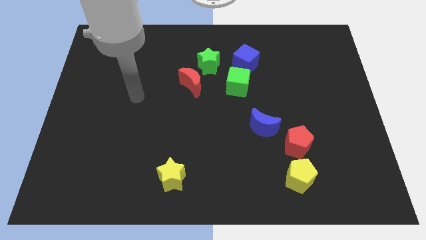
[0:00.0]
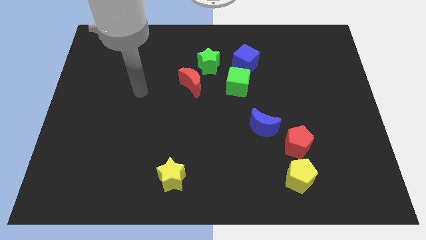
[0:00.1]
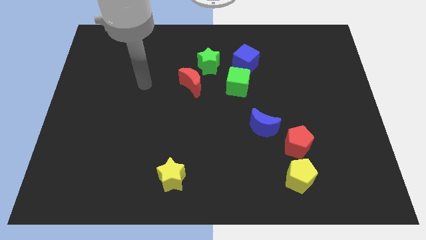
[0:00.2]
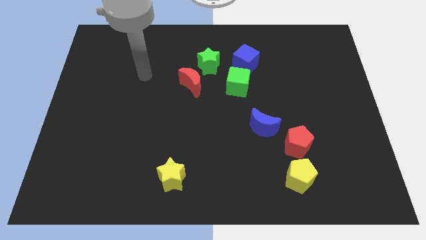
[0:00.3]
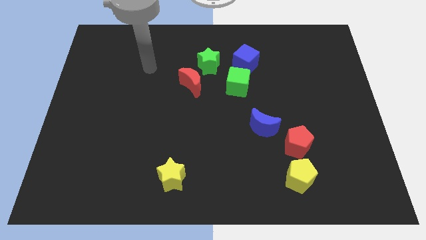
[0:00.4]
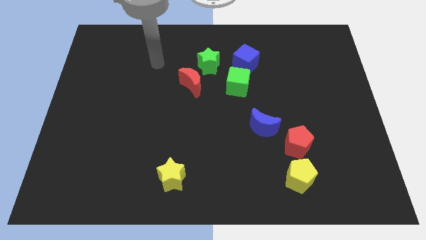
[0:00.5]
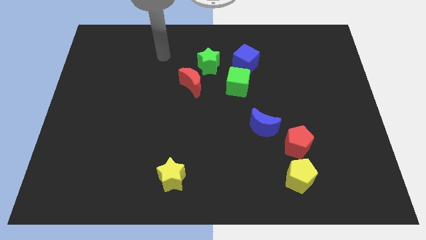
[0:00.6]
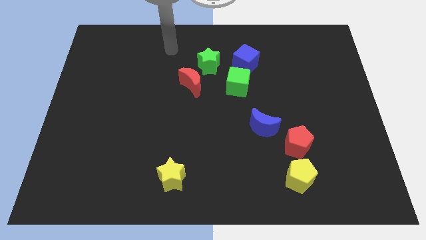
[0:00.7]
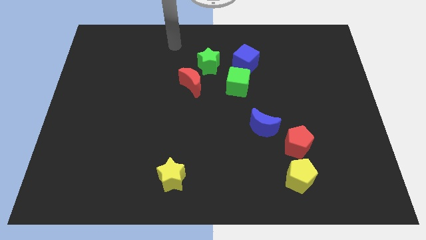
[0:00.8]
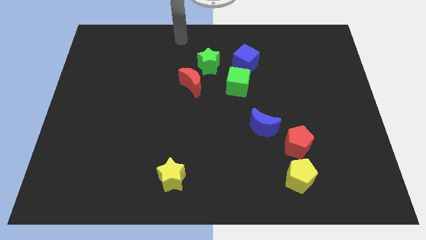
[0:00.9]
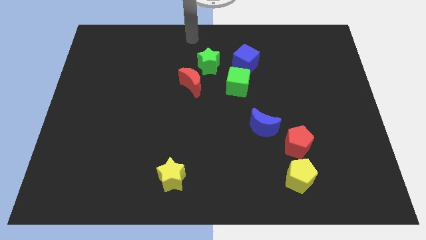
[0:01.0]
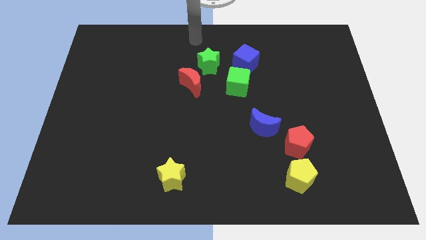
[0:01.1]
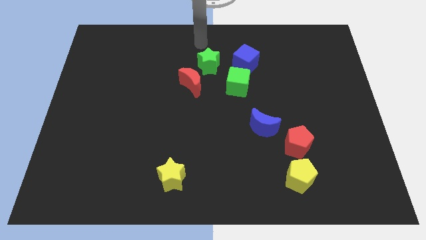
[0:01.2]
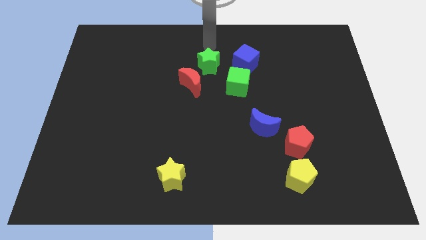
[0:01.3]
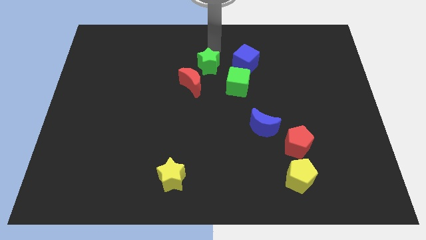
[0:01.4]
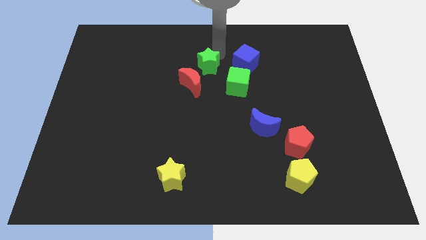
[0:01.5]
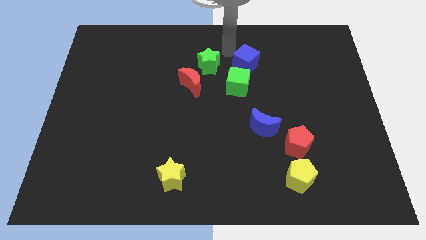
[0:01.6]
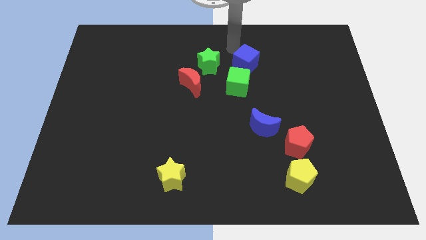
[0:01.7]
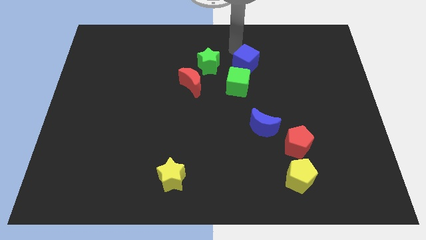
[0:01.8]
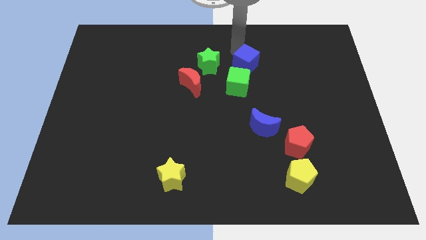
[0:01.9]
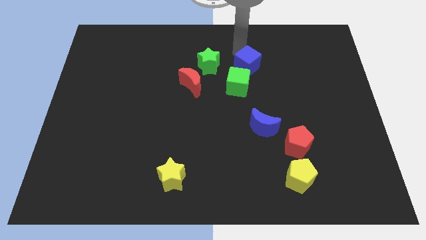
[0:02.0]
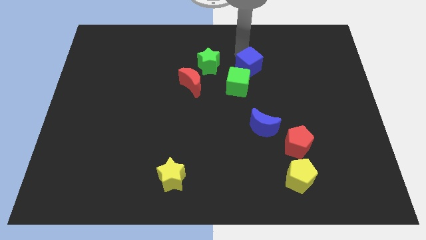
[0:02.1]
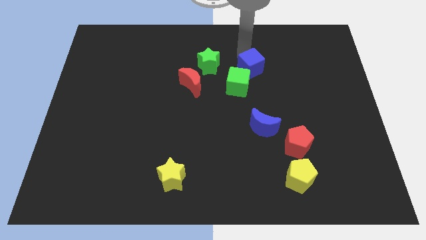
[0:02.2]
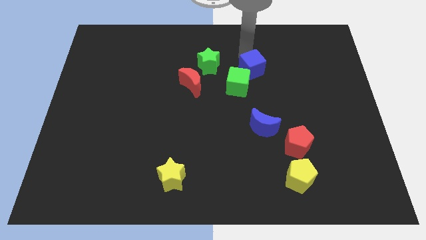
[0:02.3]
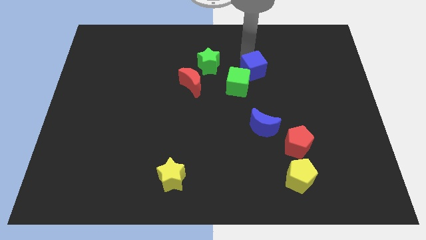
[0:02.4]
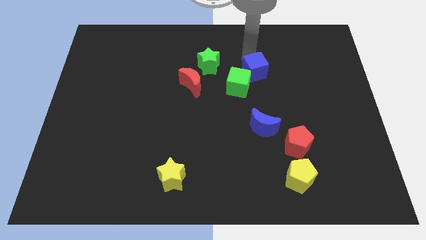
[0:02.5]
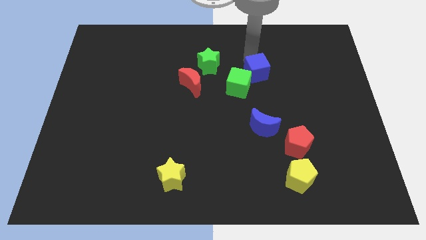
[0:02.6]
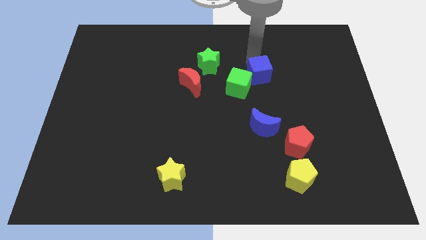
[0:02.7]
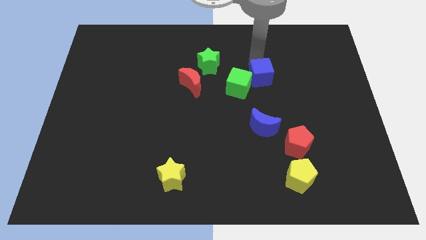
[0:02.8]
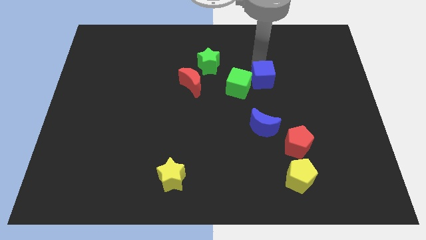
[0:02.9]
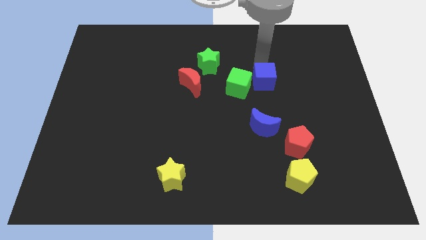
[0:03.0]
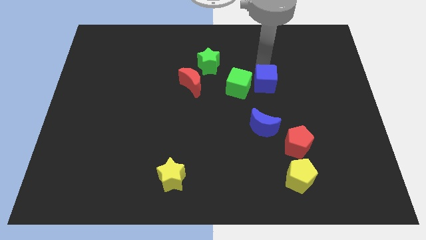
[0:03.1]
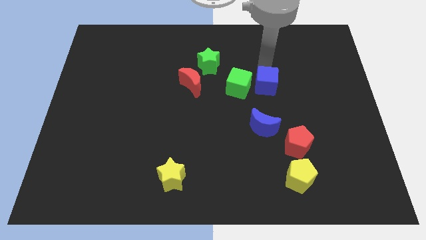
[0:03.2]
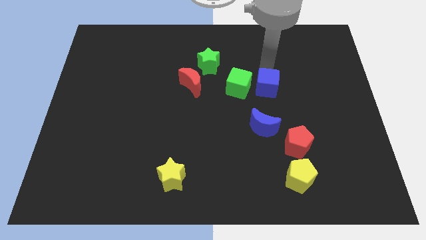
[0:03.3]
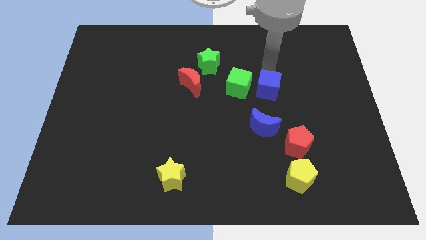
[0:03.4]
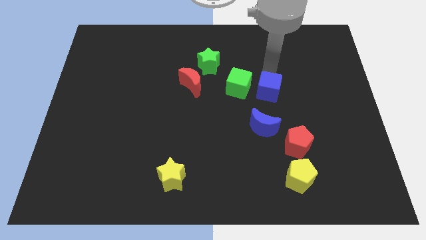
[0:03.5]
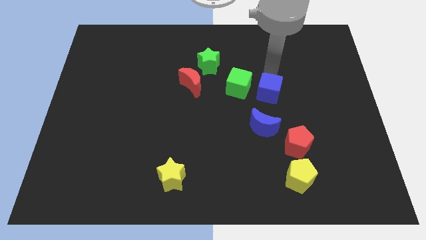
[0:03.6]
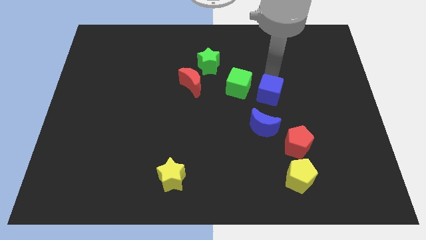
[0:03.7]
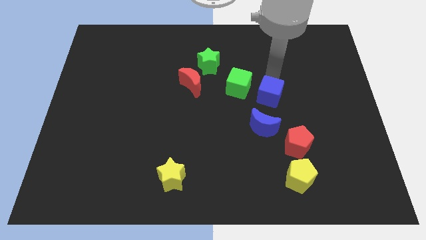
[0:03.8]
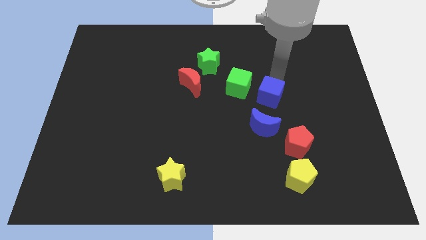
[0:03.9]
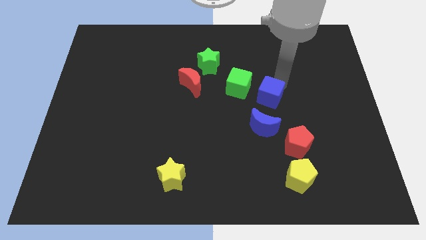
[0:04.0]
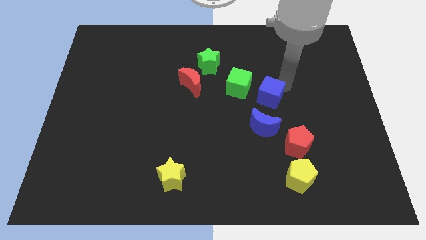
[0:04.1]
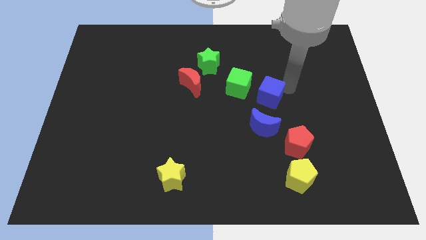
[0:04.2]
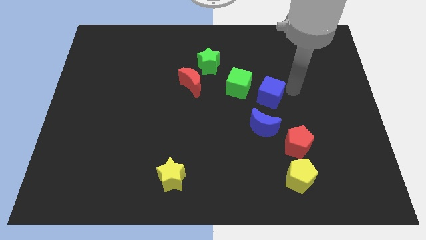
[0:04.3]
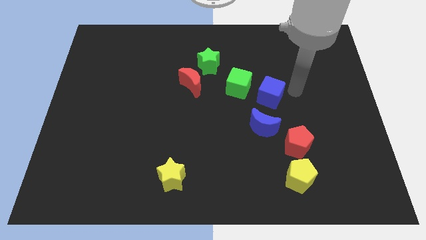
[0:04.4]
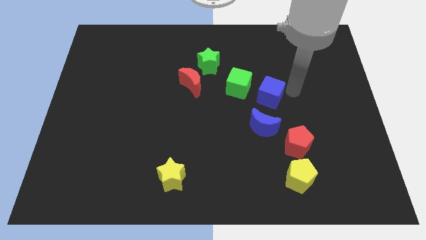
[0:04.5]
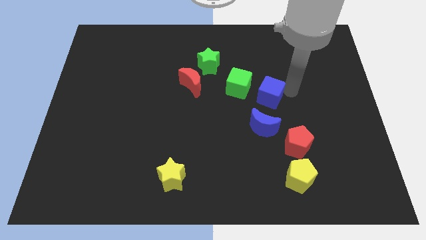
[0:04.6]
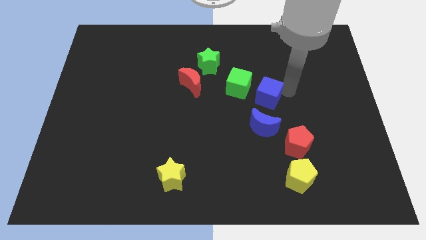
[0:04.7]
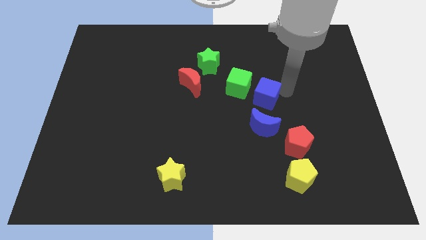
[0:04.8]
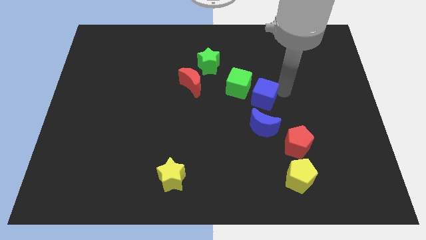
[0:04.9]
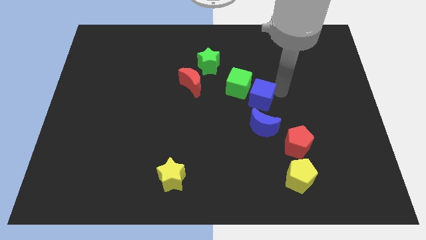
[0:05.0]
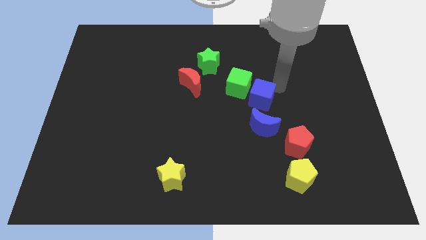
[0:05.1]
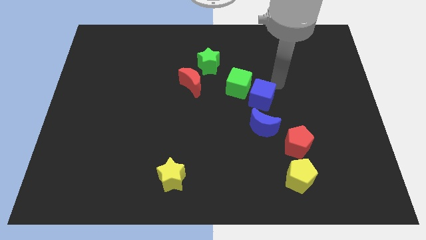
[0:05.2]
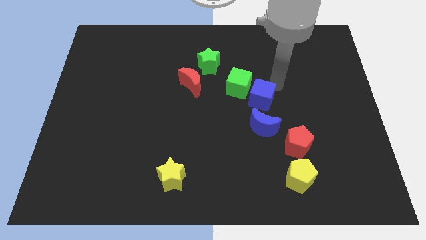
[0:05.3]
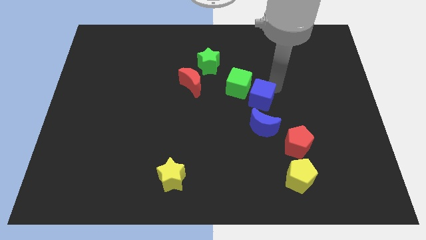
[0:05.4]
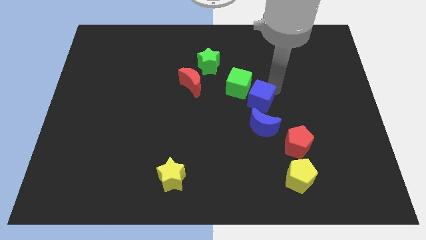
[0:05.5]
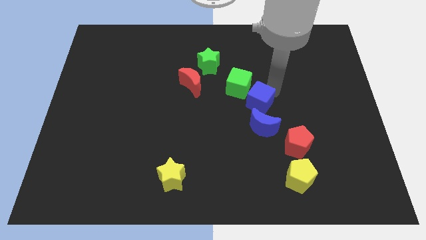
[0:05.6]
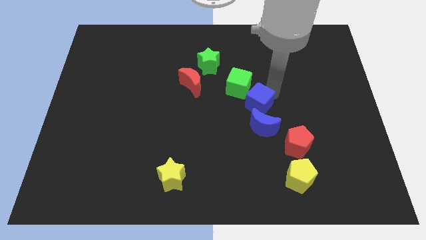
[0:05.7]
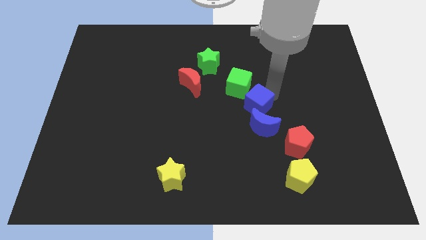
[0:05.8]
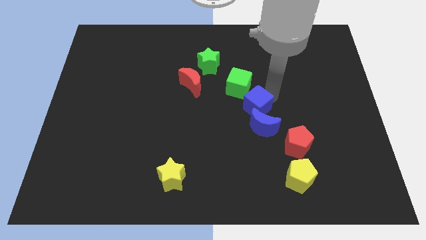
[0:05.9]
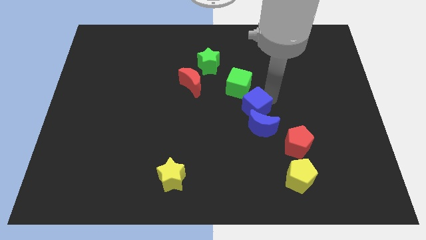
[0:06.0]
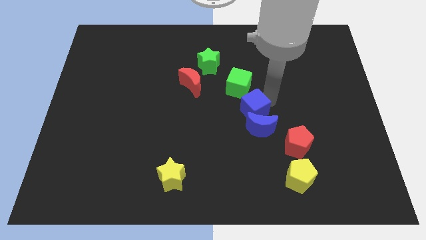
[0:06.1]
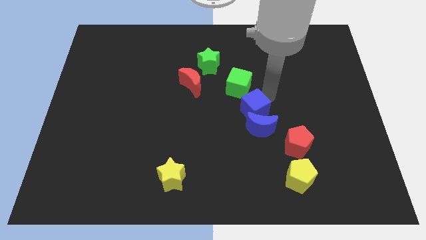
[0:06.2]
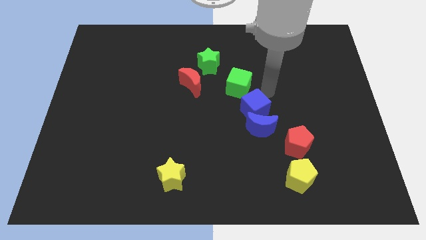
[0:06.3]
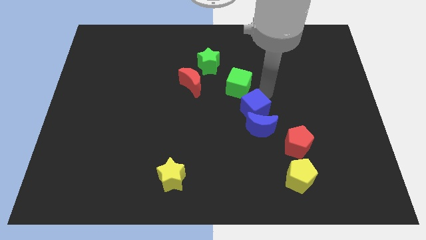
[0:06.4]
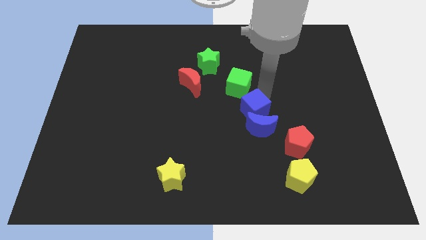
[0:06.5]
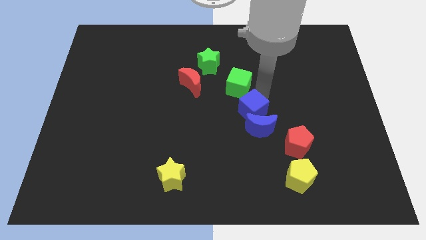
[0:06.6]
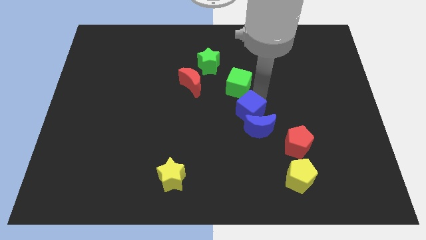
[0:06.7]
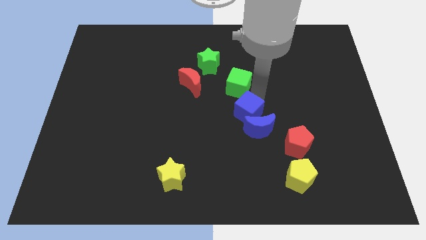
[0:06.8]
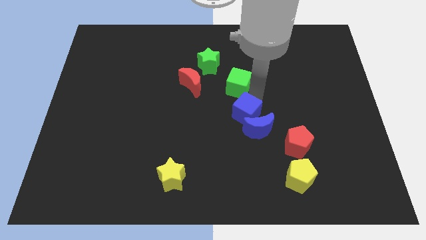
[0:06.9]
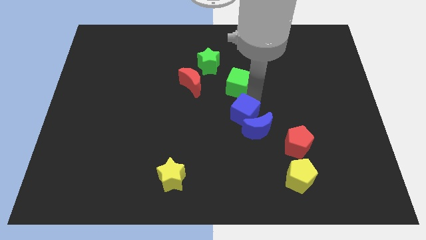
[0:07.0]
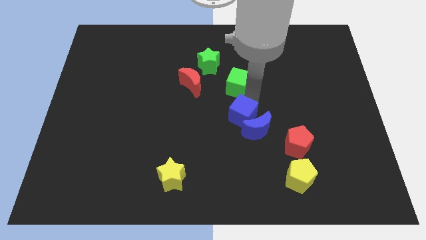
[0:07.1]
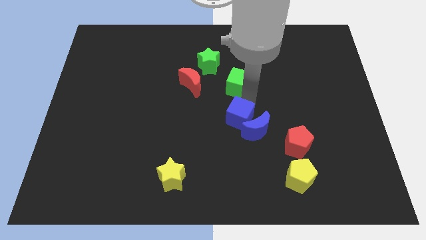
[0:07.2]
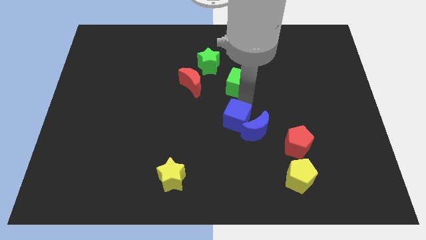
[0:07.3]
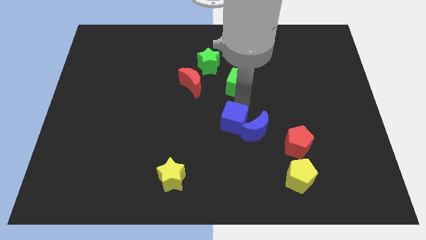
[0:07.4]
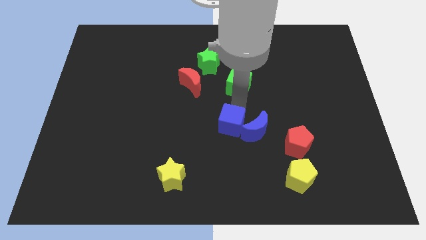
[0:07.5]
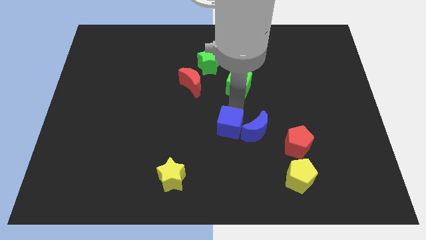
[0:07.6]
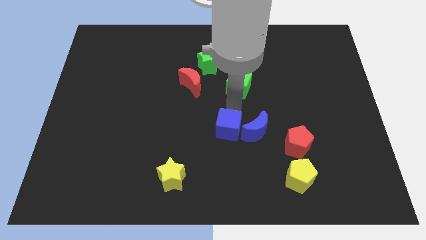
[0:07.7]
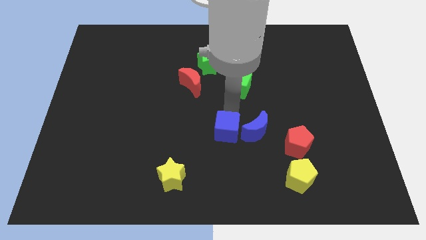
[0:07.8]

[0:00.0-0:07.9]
move the blue cube to the bottom left side of the blue moon
